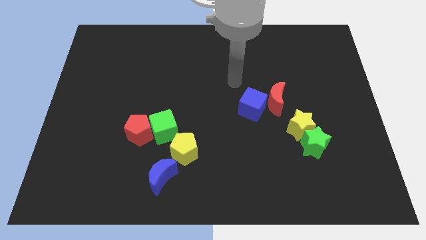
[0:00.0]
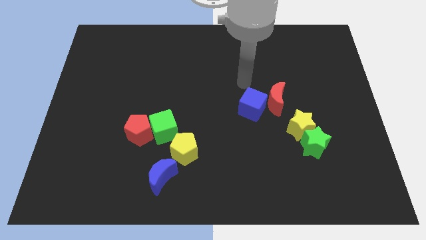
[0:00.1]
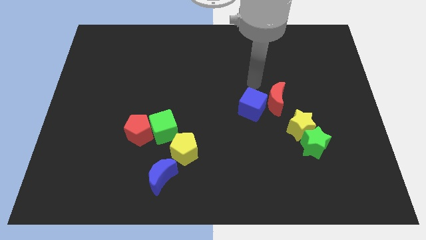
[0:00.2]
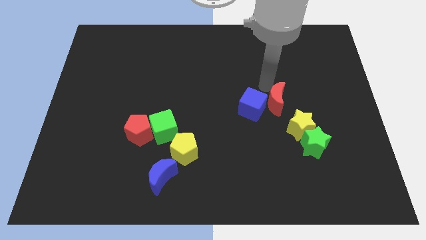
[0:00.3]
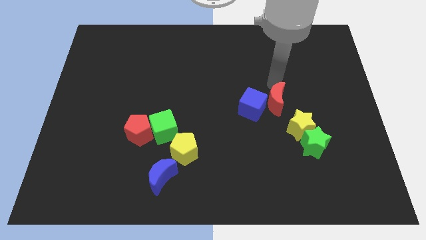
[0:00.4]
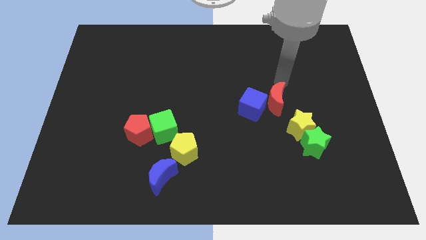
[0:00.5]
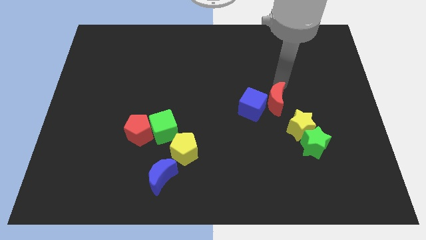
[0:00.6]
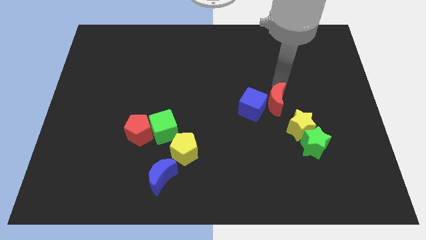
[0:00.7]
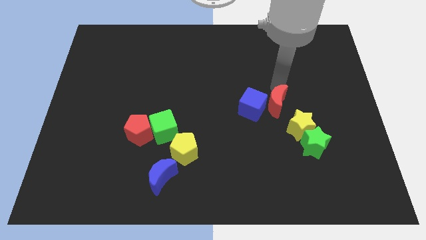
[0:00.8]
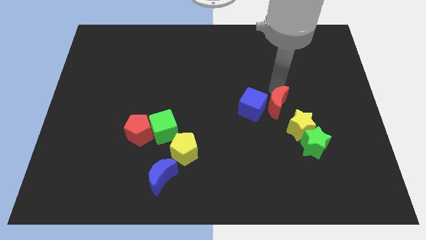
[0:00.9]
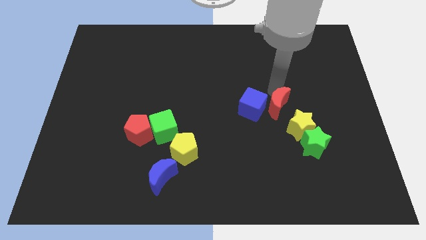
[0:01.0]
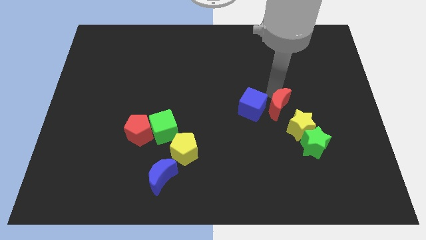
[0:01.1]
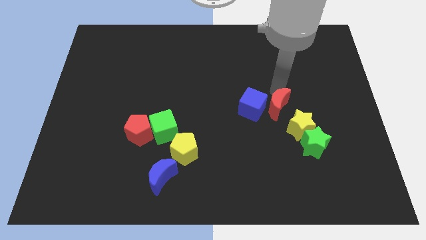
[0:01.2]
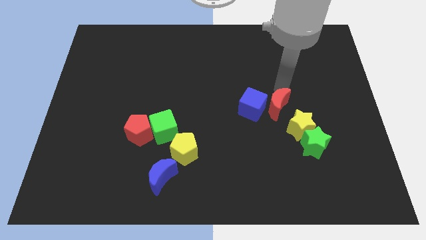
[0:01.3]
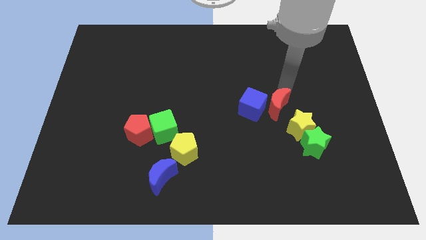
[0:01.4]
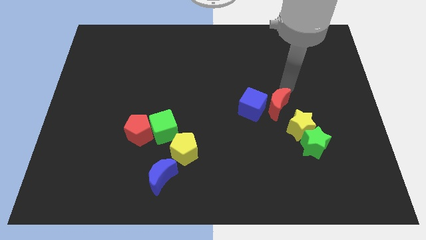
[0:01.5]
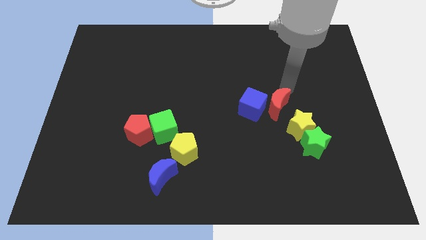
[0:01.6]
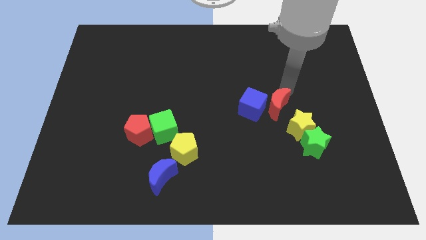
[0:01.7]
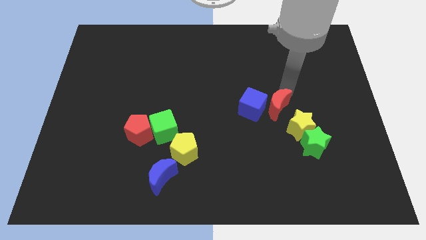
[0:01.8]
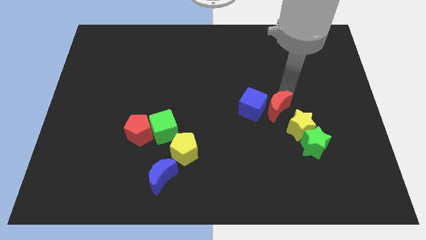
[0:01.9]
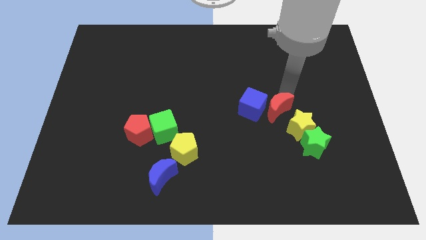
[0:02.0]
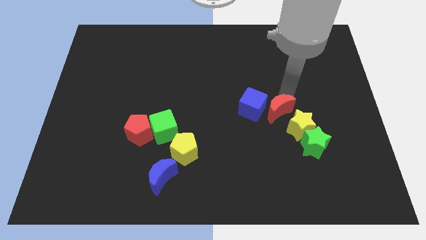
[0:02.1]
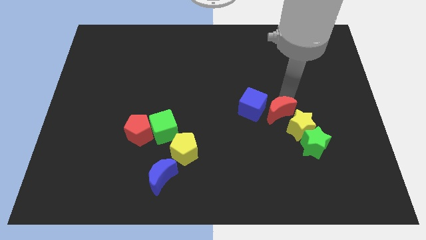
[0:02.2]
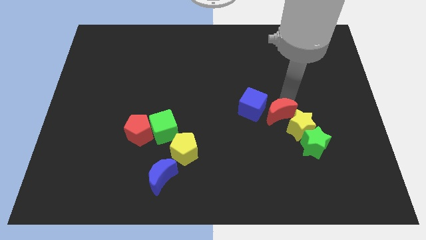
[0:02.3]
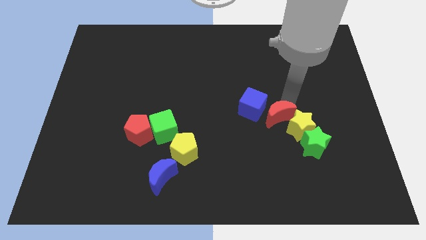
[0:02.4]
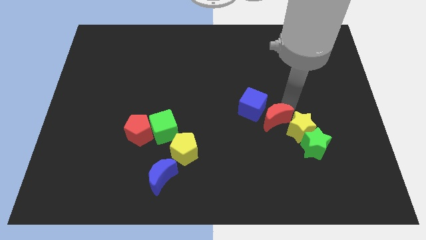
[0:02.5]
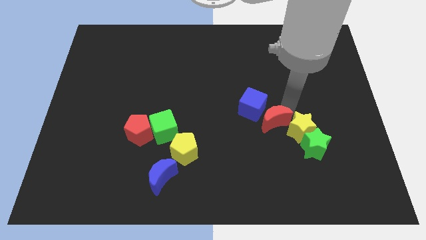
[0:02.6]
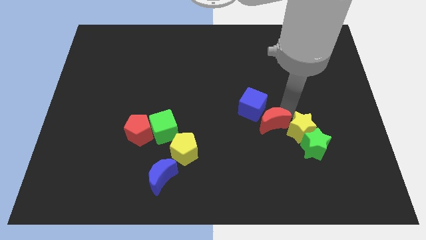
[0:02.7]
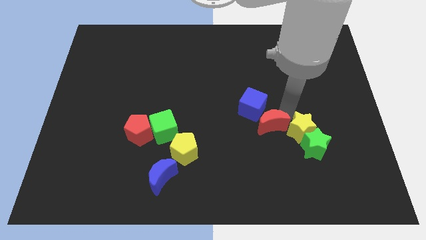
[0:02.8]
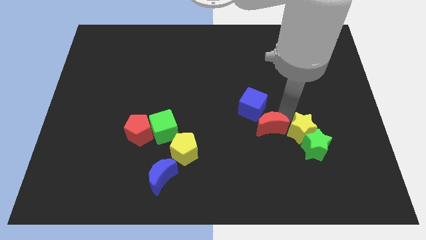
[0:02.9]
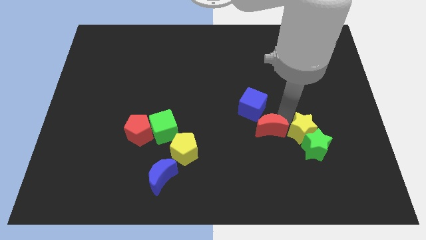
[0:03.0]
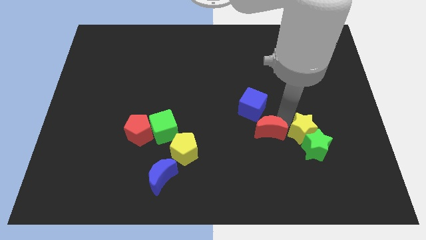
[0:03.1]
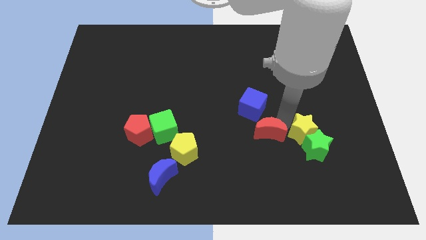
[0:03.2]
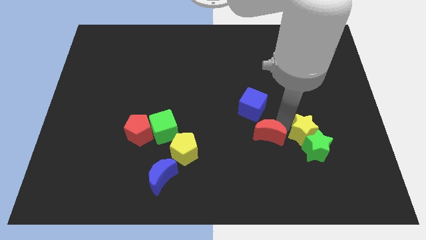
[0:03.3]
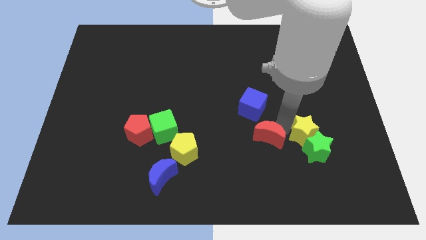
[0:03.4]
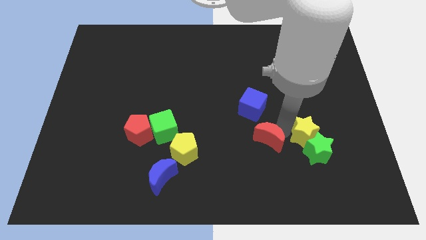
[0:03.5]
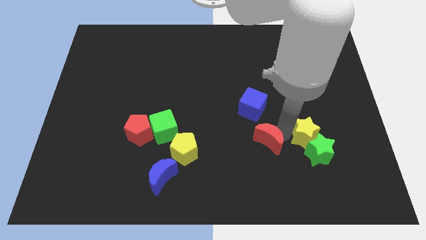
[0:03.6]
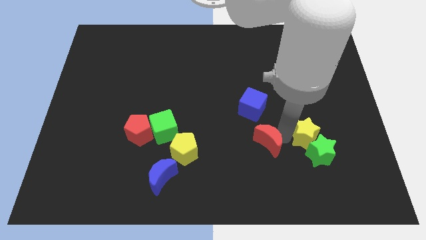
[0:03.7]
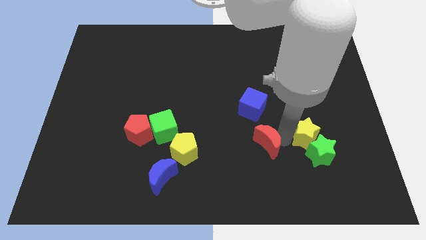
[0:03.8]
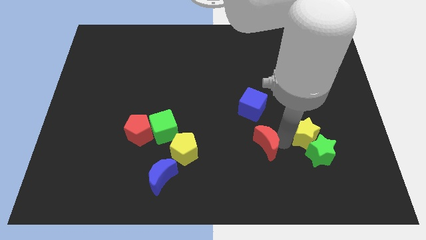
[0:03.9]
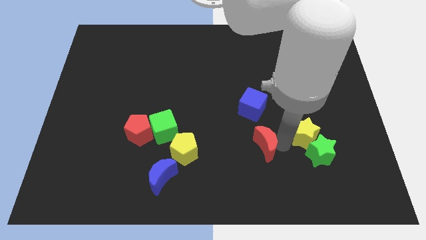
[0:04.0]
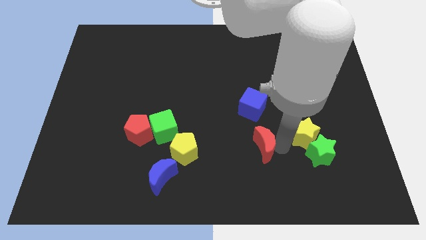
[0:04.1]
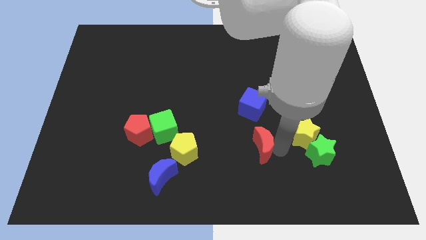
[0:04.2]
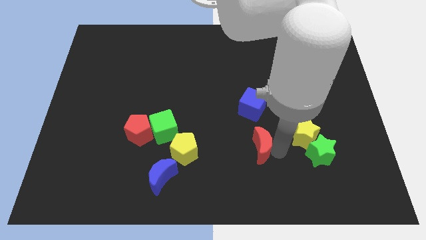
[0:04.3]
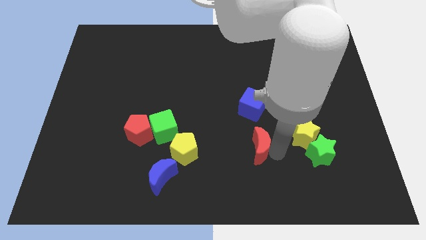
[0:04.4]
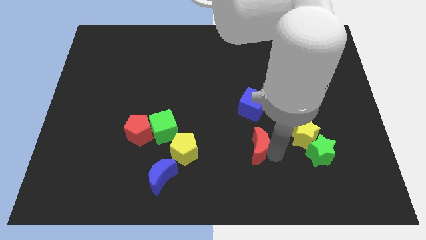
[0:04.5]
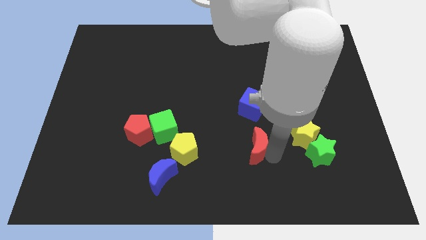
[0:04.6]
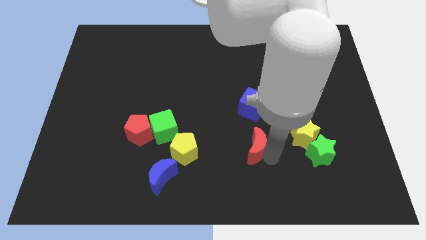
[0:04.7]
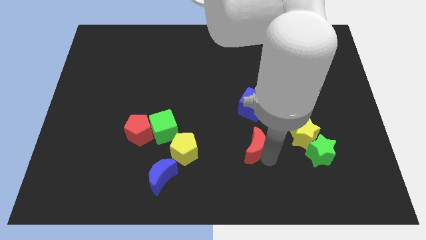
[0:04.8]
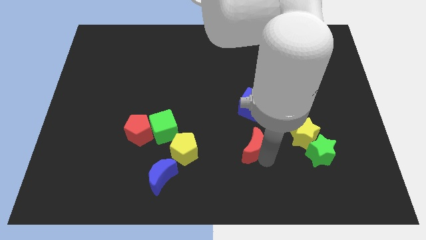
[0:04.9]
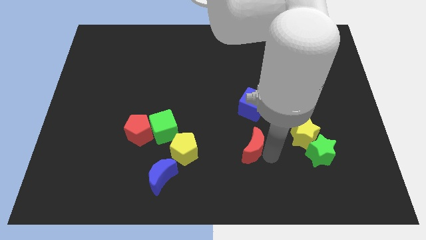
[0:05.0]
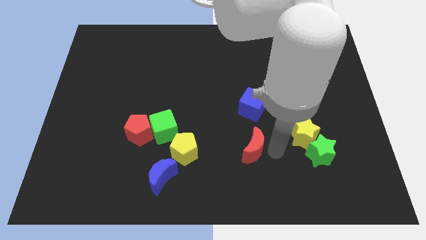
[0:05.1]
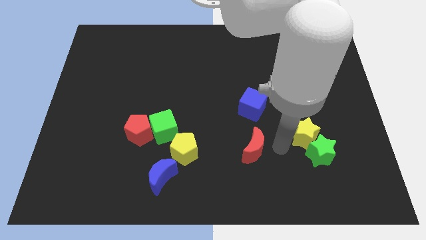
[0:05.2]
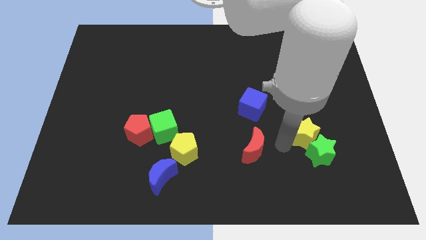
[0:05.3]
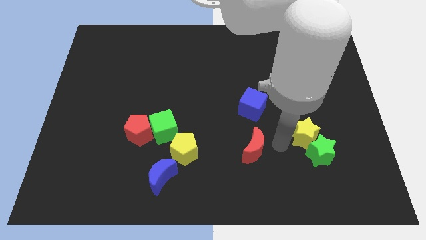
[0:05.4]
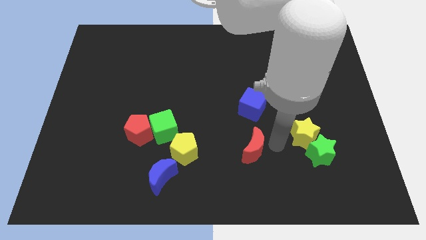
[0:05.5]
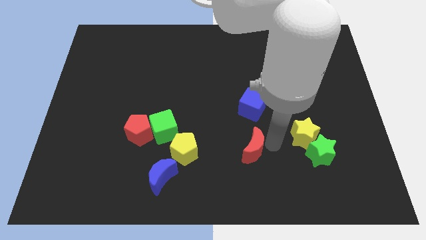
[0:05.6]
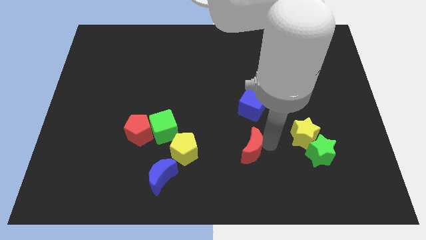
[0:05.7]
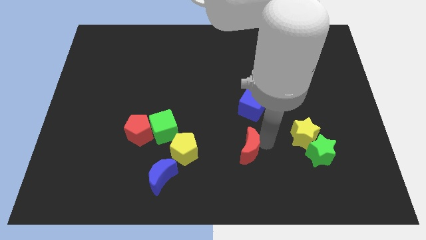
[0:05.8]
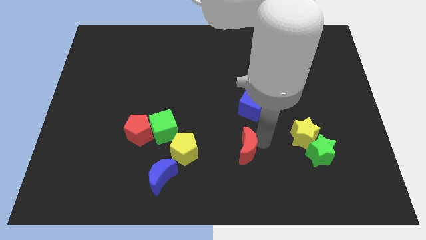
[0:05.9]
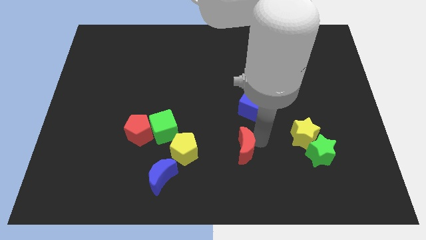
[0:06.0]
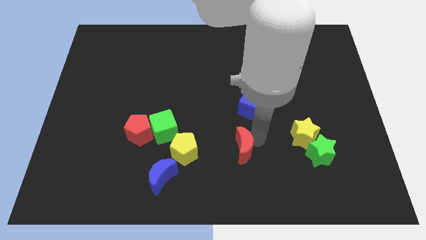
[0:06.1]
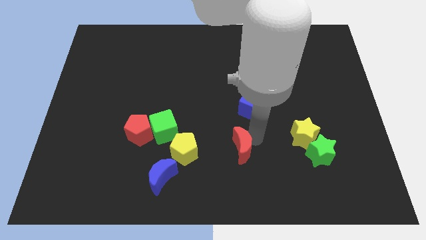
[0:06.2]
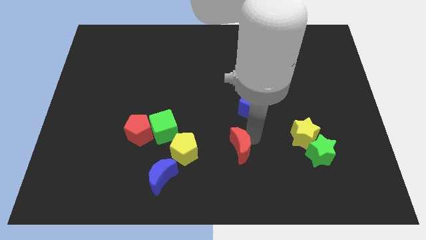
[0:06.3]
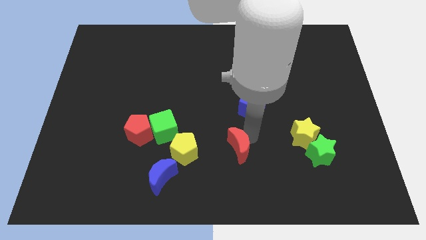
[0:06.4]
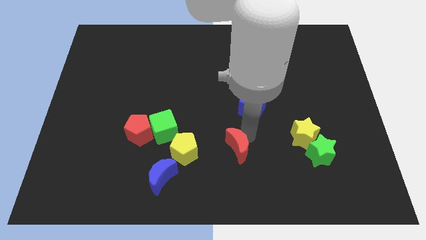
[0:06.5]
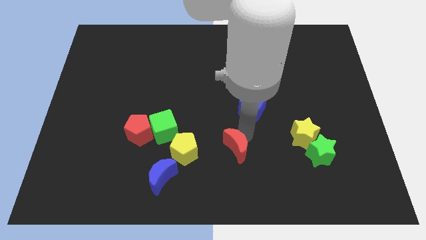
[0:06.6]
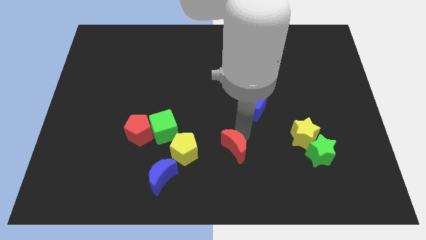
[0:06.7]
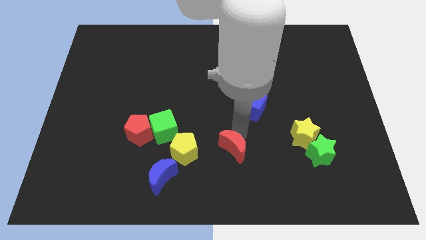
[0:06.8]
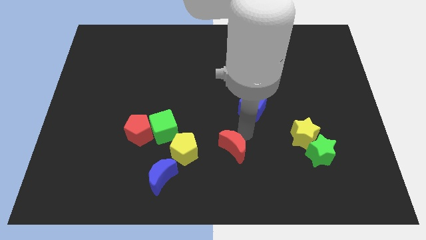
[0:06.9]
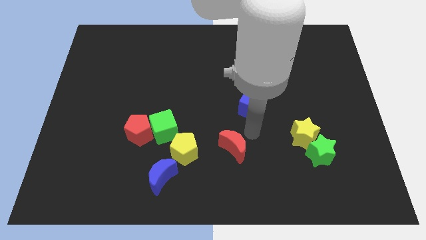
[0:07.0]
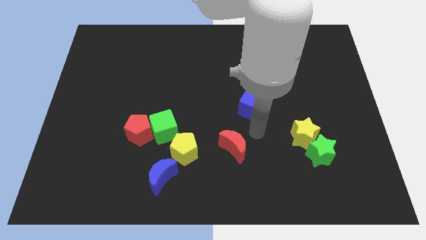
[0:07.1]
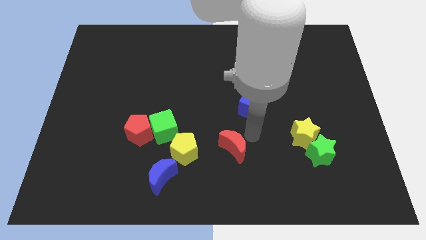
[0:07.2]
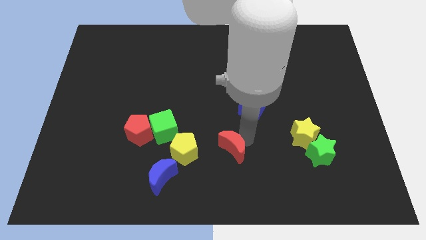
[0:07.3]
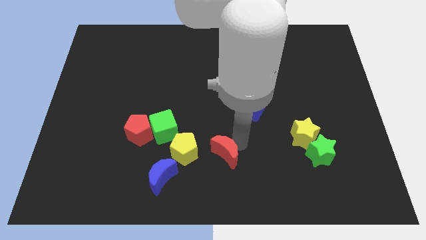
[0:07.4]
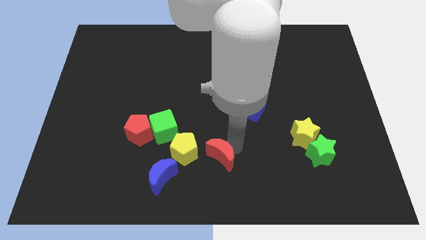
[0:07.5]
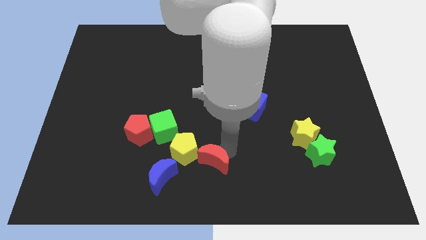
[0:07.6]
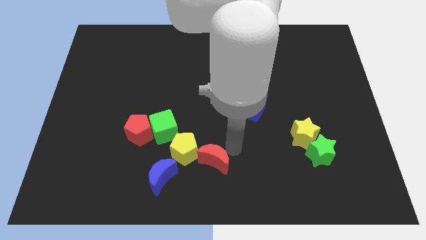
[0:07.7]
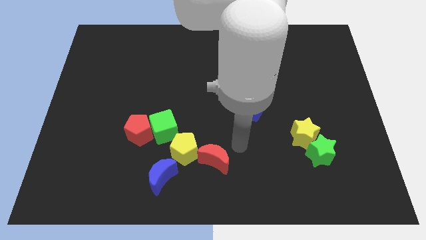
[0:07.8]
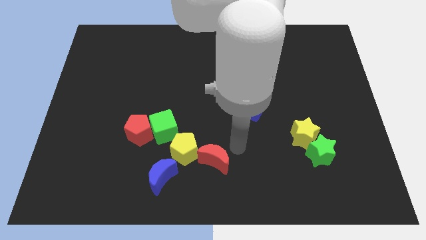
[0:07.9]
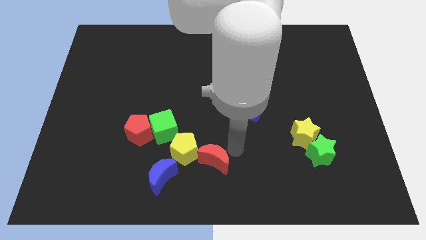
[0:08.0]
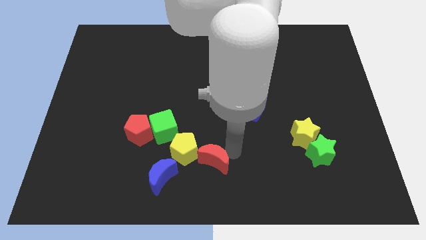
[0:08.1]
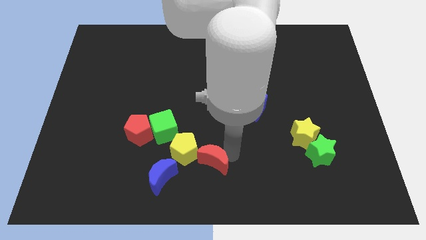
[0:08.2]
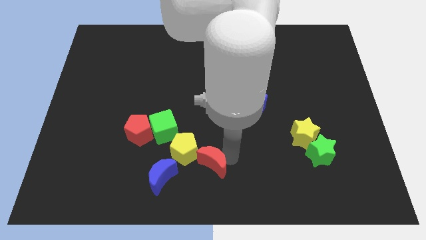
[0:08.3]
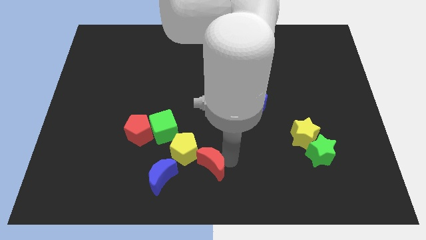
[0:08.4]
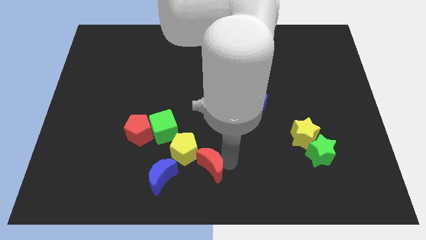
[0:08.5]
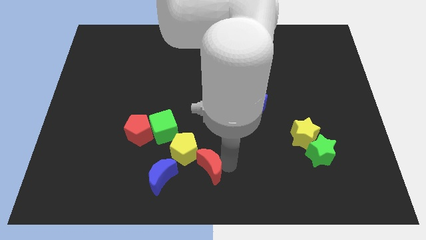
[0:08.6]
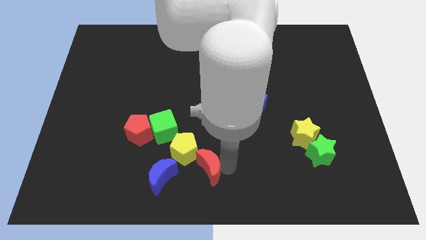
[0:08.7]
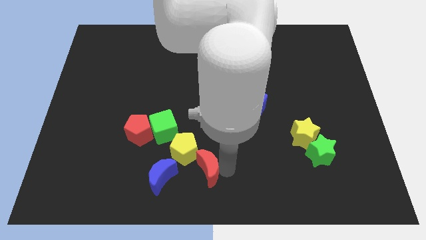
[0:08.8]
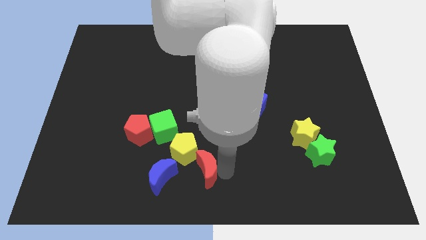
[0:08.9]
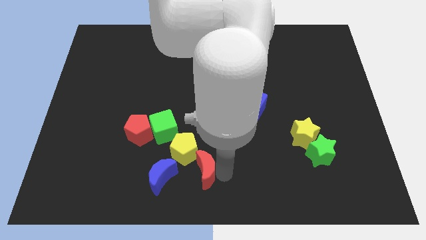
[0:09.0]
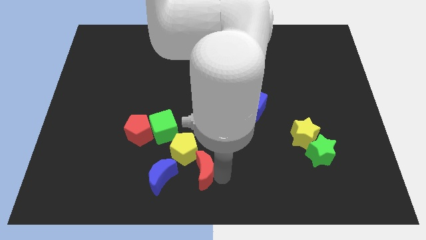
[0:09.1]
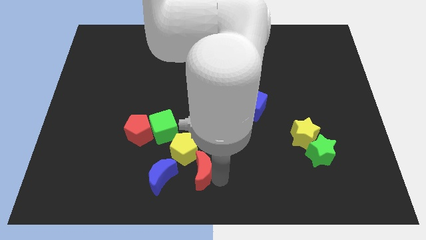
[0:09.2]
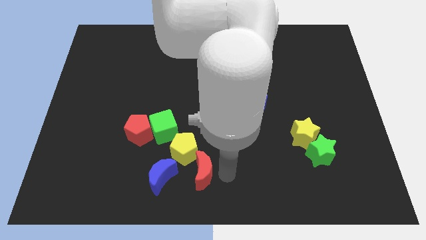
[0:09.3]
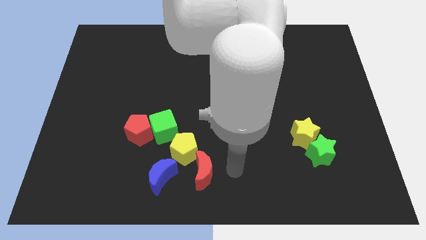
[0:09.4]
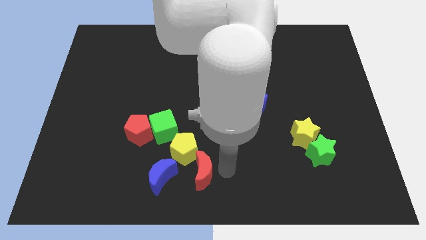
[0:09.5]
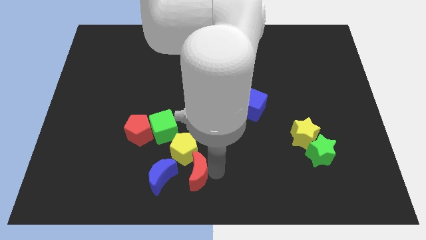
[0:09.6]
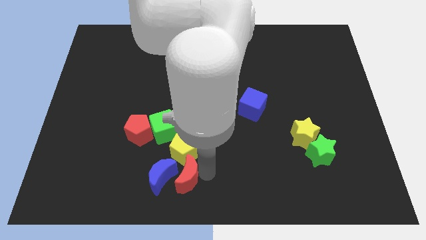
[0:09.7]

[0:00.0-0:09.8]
slide the red moon towards the blue moon
